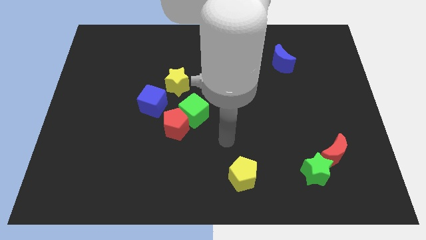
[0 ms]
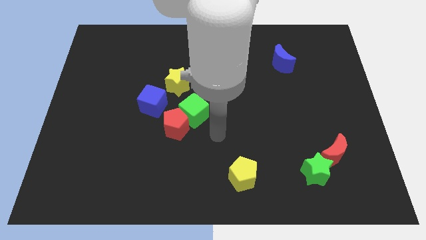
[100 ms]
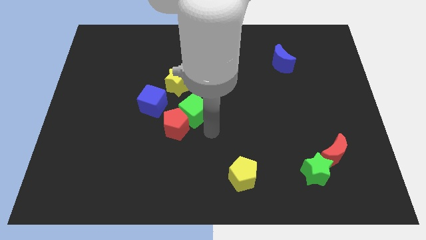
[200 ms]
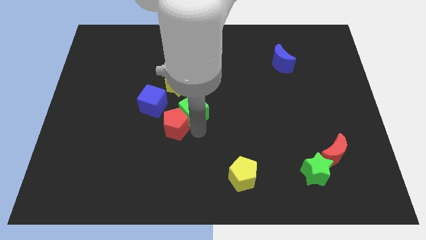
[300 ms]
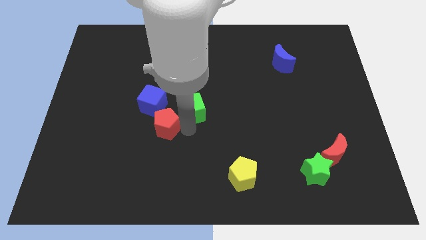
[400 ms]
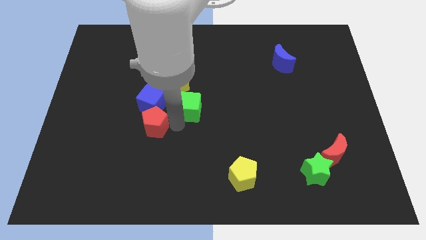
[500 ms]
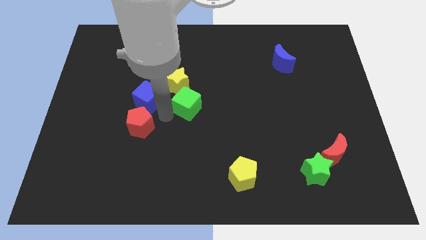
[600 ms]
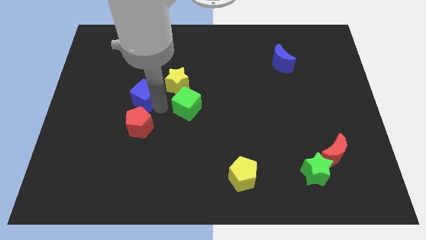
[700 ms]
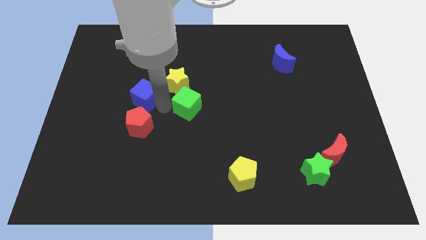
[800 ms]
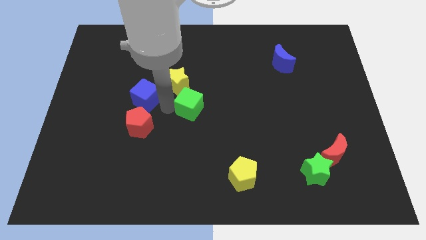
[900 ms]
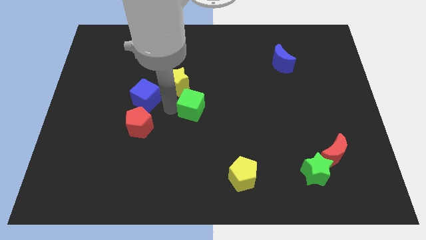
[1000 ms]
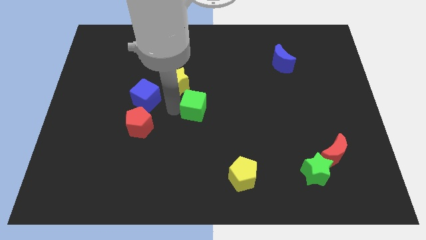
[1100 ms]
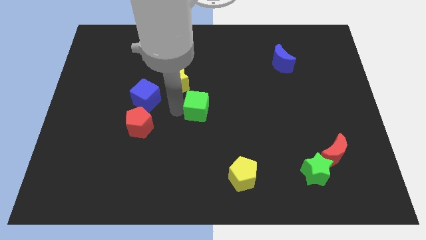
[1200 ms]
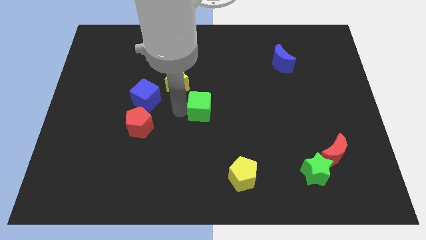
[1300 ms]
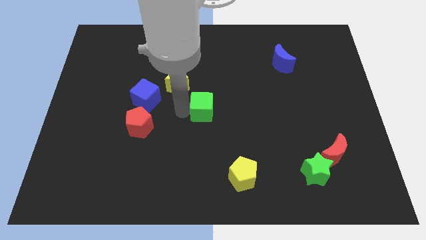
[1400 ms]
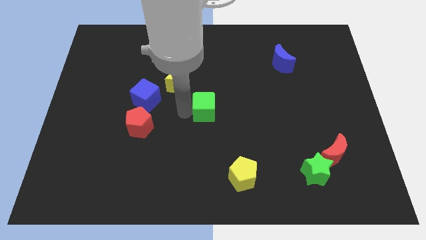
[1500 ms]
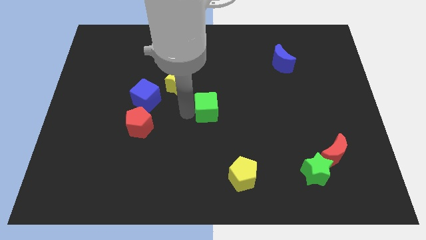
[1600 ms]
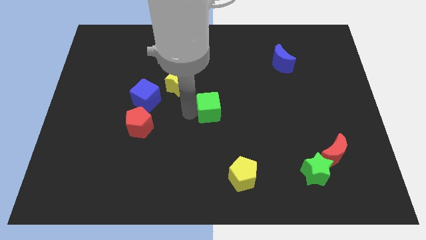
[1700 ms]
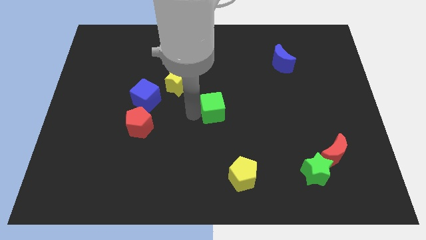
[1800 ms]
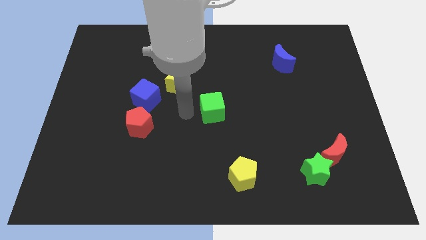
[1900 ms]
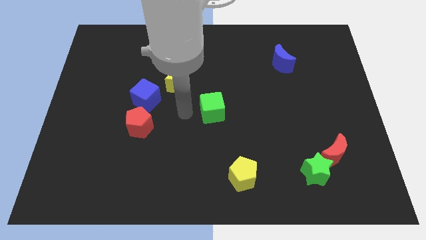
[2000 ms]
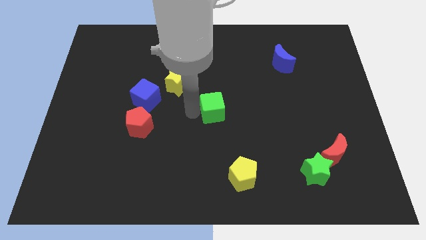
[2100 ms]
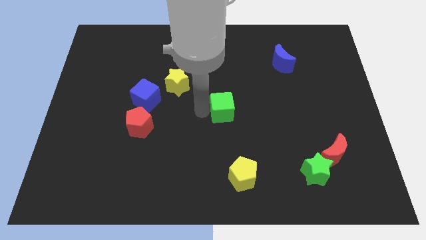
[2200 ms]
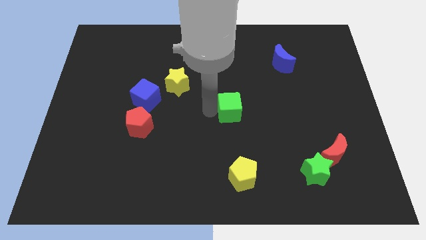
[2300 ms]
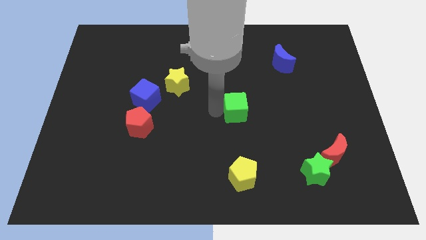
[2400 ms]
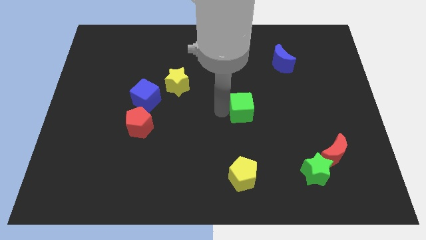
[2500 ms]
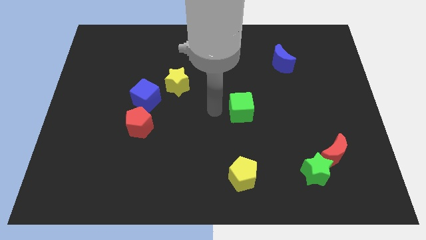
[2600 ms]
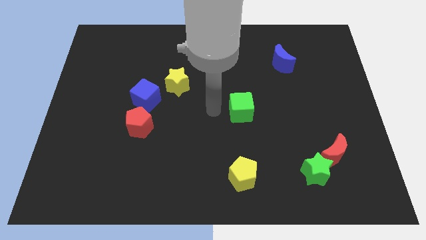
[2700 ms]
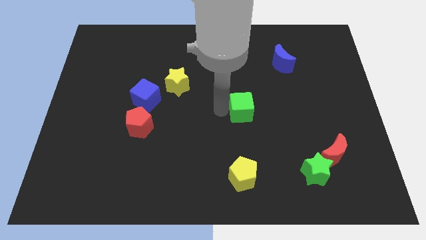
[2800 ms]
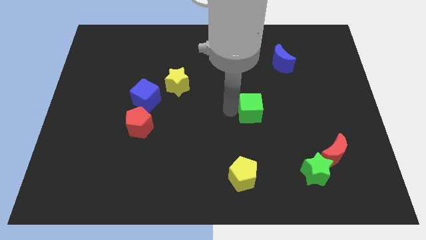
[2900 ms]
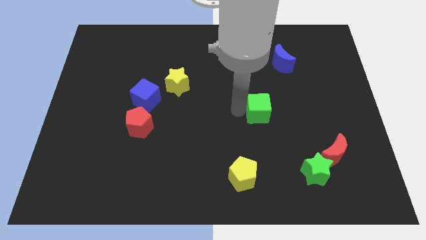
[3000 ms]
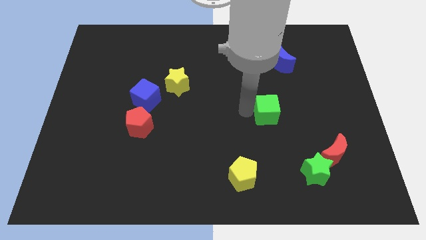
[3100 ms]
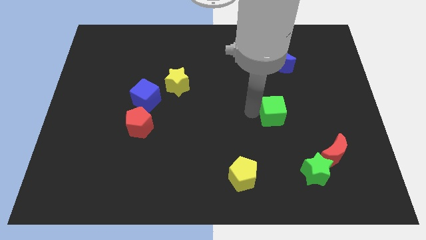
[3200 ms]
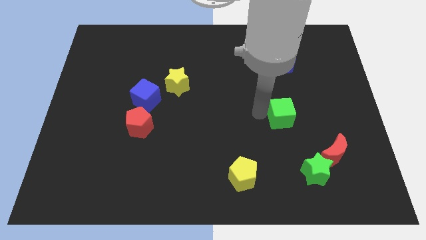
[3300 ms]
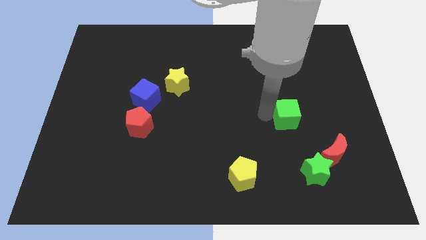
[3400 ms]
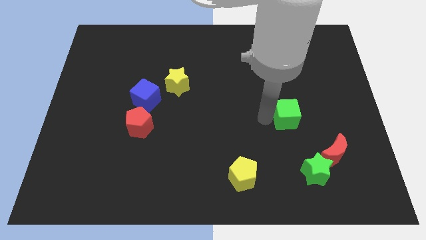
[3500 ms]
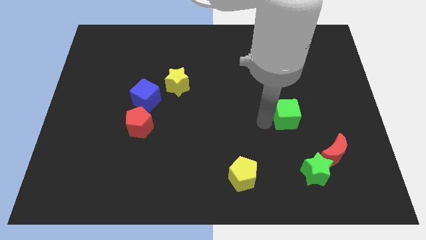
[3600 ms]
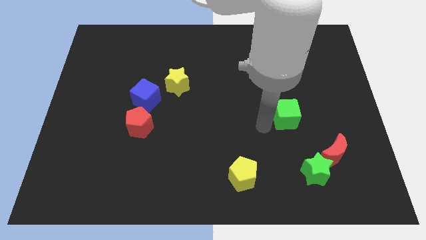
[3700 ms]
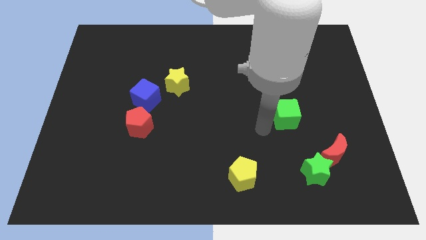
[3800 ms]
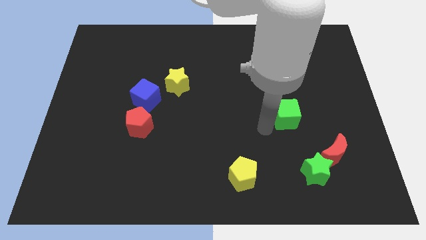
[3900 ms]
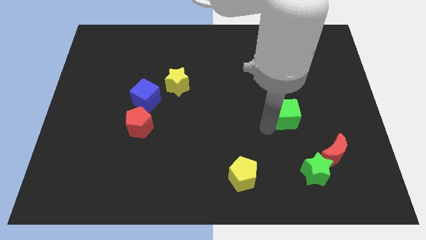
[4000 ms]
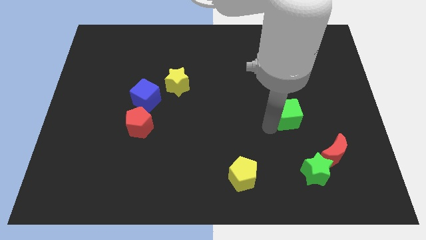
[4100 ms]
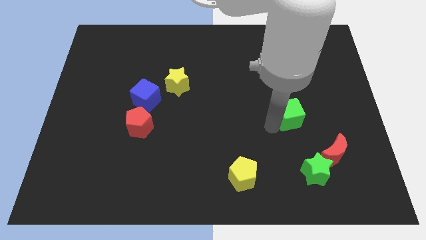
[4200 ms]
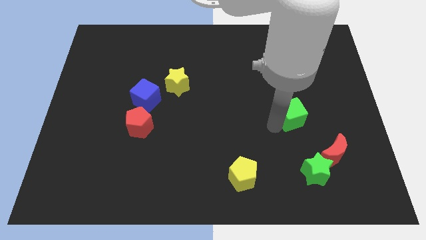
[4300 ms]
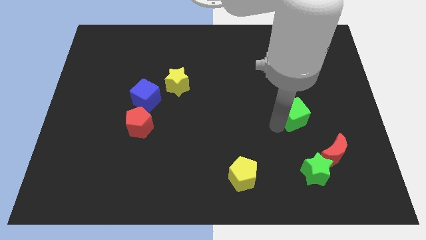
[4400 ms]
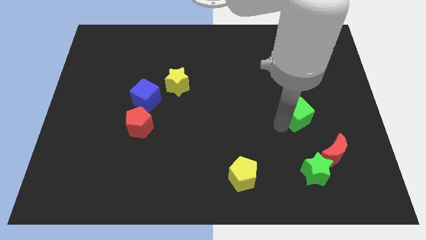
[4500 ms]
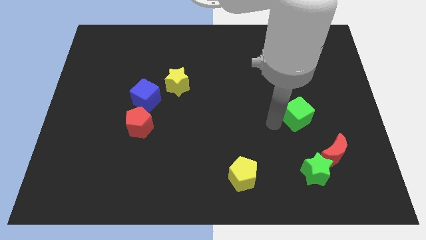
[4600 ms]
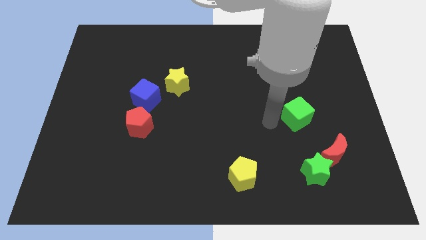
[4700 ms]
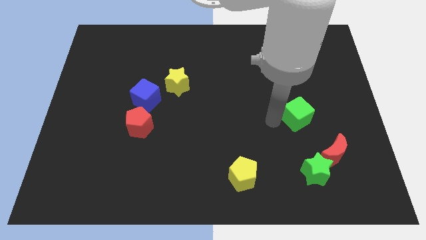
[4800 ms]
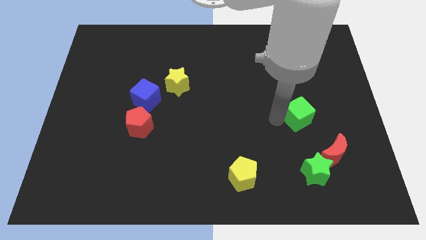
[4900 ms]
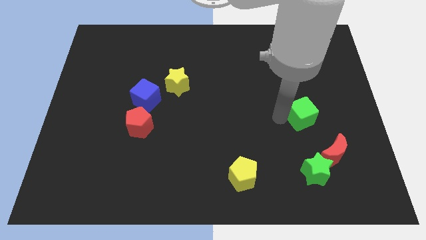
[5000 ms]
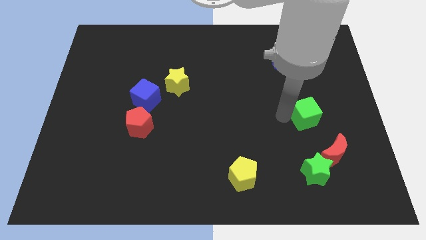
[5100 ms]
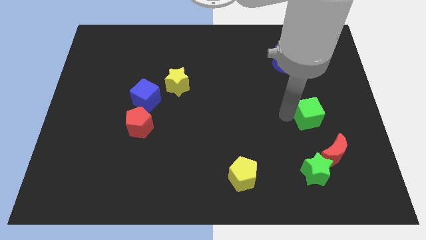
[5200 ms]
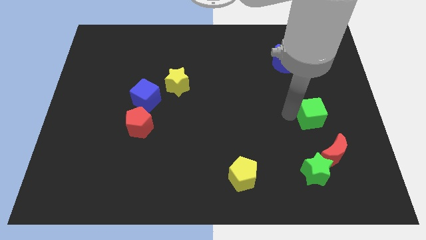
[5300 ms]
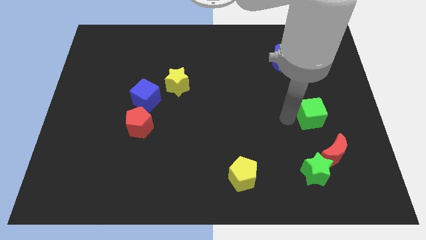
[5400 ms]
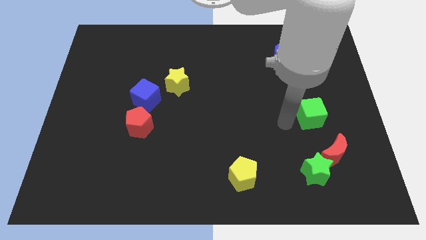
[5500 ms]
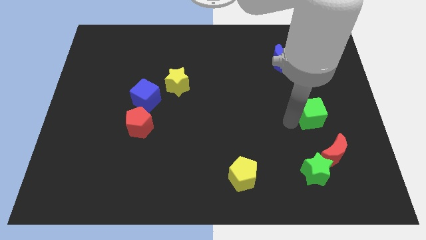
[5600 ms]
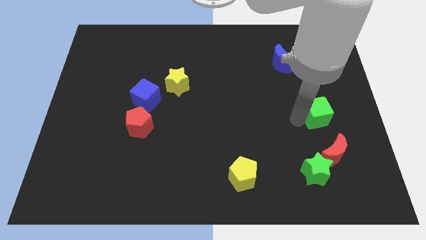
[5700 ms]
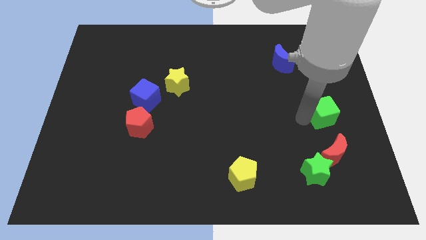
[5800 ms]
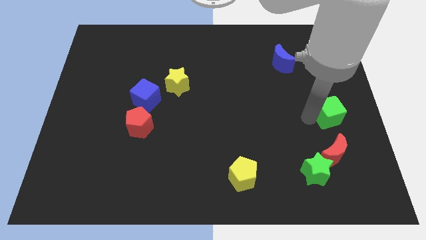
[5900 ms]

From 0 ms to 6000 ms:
push the green cube to the right side of the board

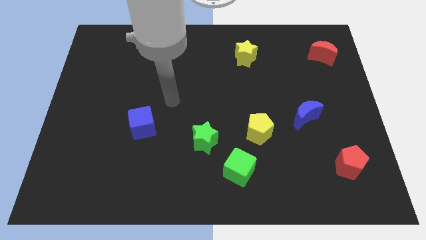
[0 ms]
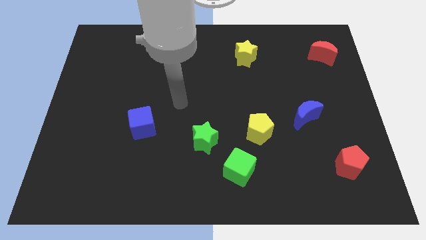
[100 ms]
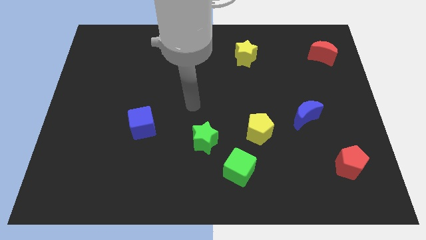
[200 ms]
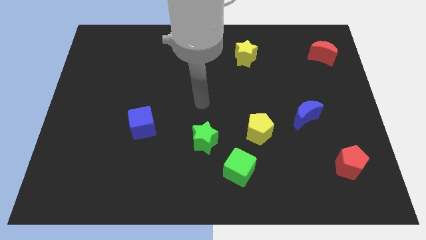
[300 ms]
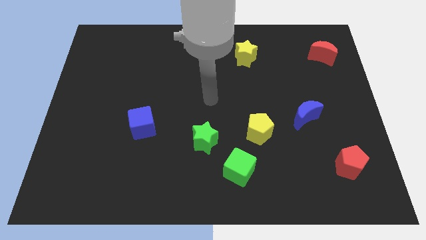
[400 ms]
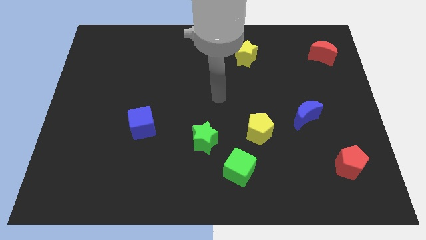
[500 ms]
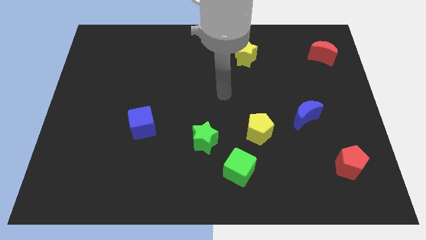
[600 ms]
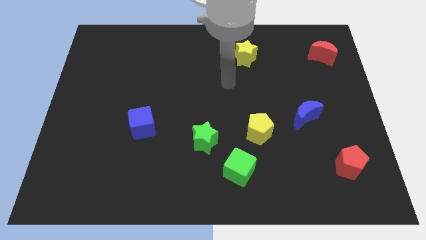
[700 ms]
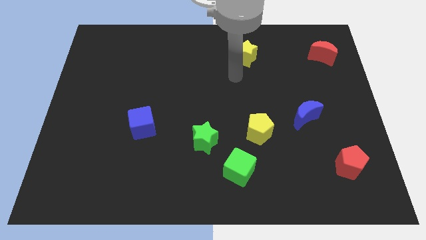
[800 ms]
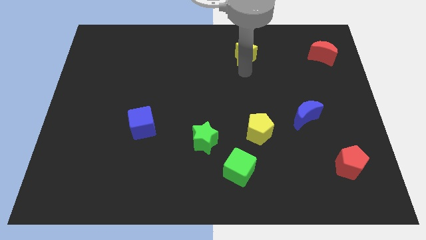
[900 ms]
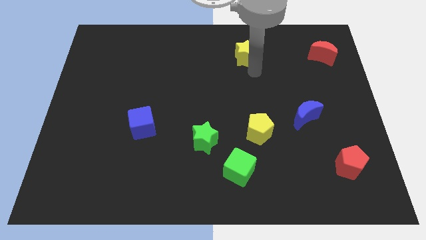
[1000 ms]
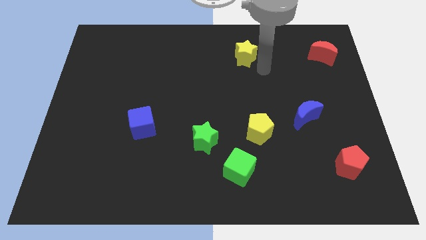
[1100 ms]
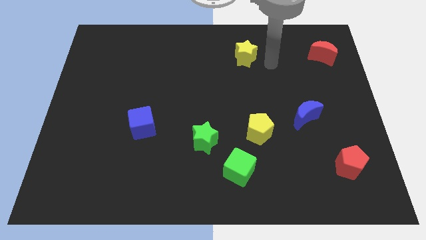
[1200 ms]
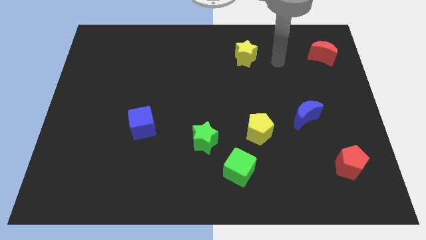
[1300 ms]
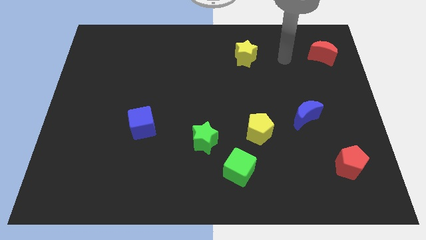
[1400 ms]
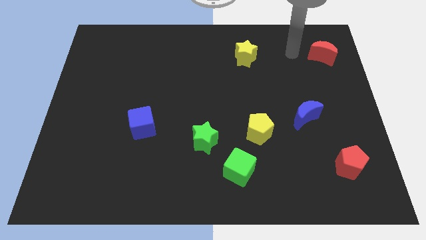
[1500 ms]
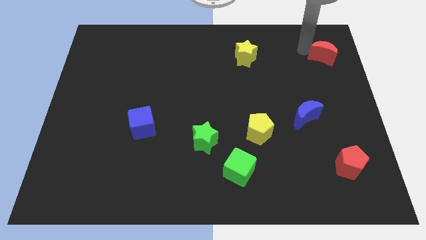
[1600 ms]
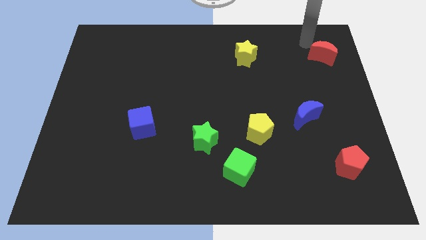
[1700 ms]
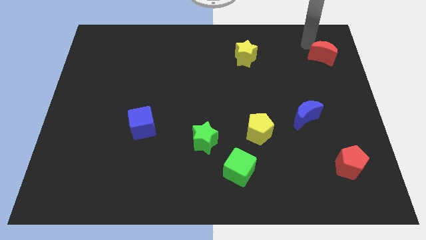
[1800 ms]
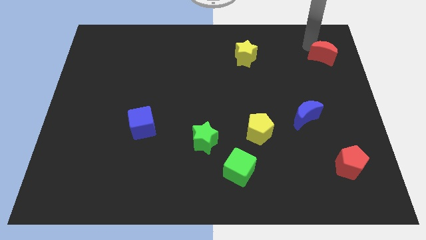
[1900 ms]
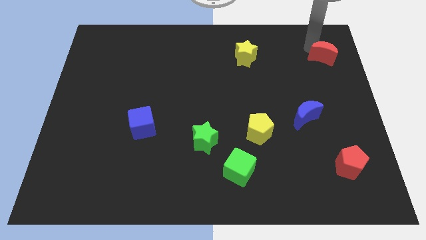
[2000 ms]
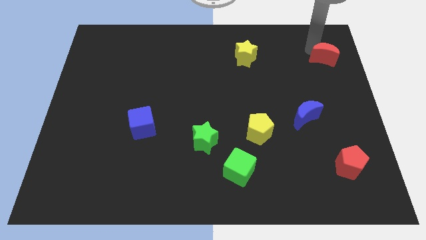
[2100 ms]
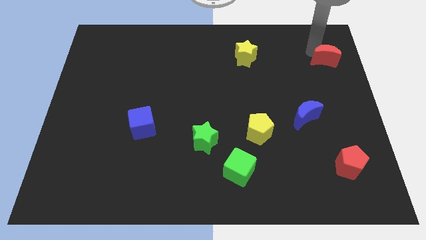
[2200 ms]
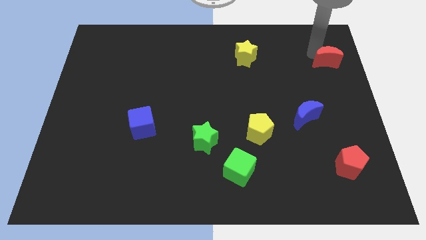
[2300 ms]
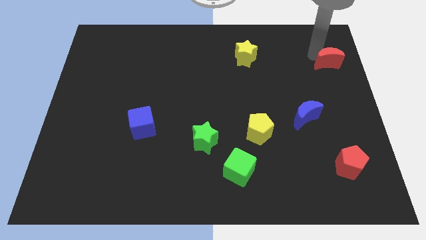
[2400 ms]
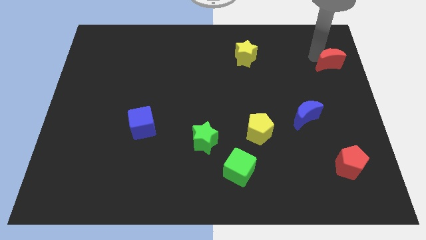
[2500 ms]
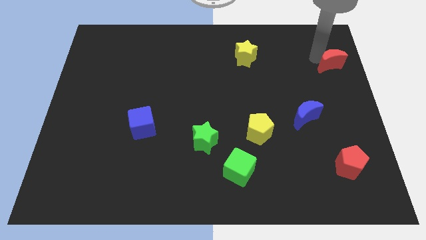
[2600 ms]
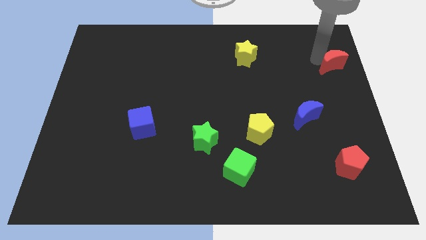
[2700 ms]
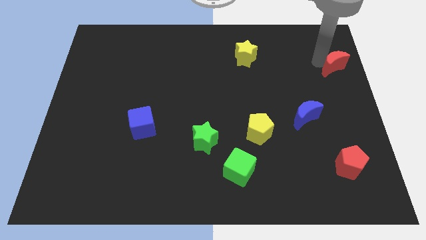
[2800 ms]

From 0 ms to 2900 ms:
move the red moon to the right side of the board
